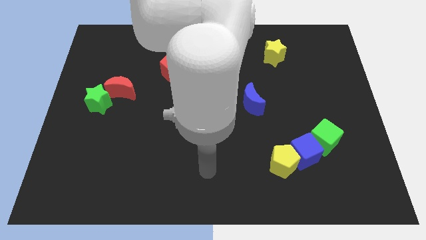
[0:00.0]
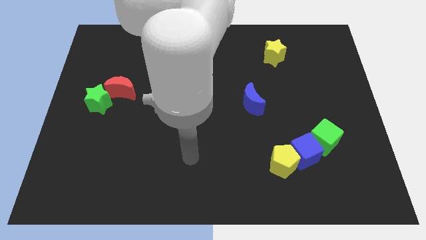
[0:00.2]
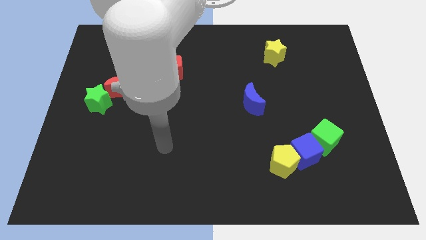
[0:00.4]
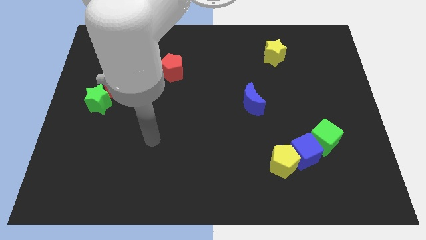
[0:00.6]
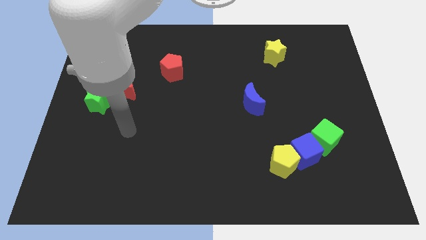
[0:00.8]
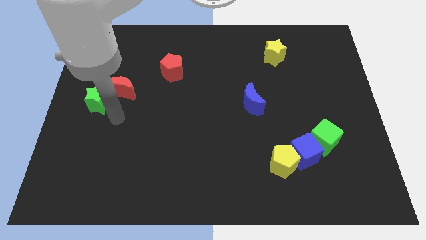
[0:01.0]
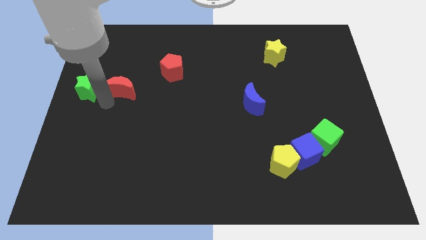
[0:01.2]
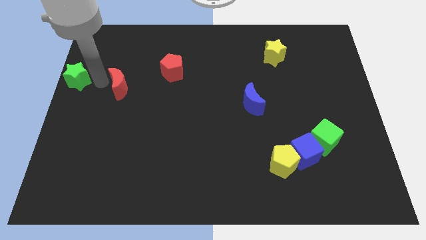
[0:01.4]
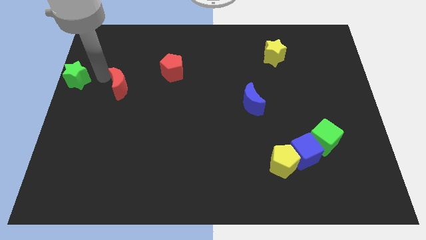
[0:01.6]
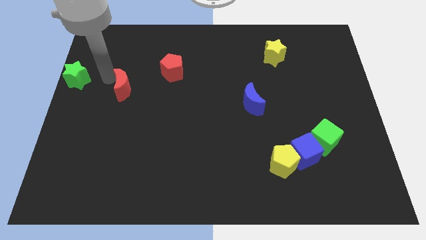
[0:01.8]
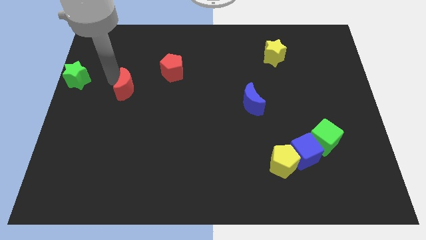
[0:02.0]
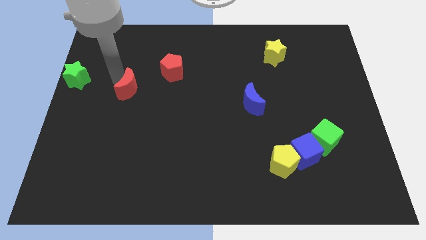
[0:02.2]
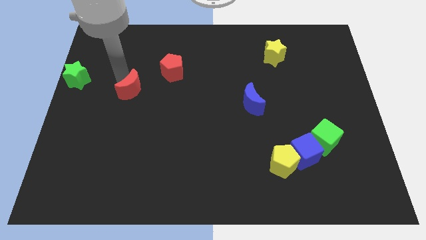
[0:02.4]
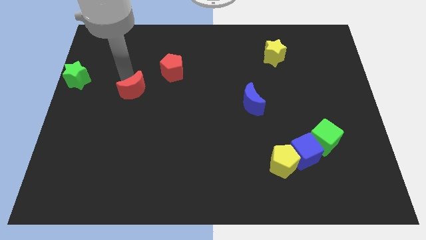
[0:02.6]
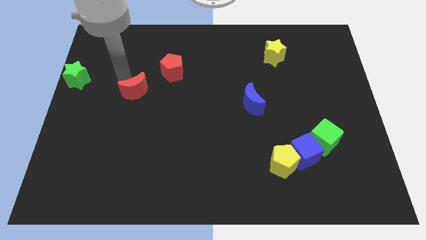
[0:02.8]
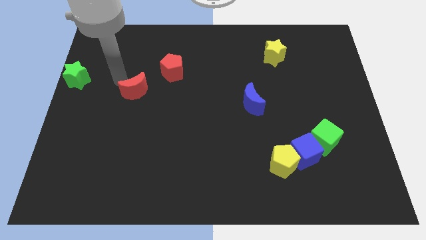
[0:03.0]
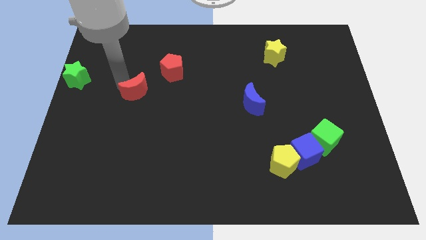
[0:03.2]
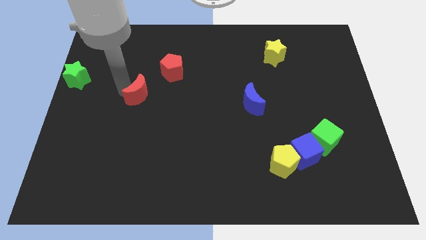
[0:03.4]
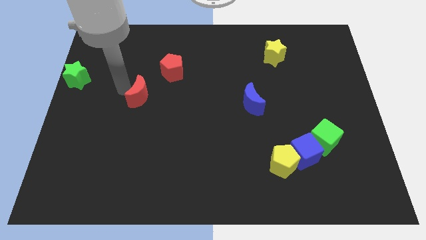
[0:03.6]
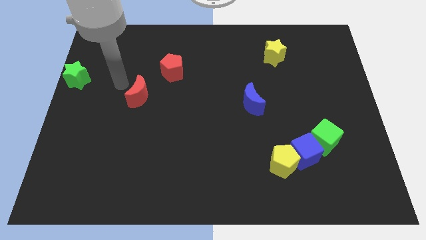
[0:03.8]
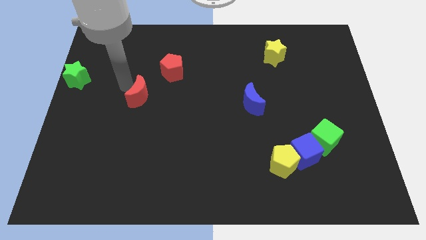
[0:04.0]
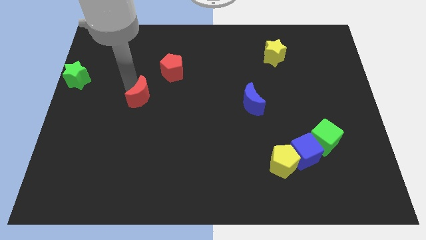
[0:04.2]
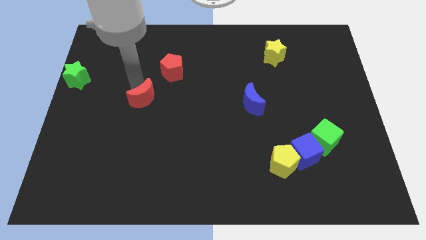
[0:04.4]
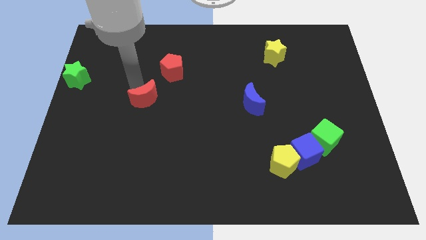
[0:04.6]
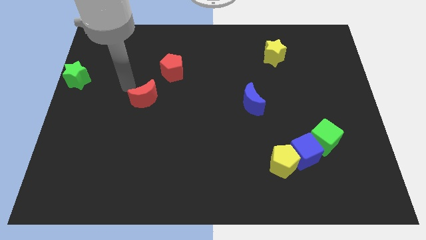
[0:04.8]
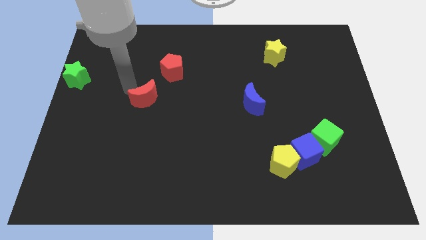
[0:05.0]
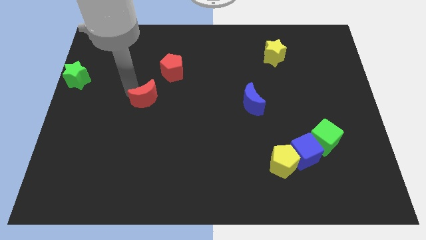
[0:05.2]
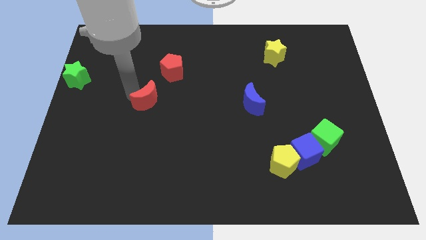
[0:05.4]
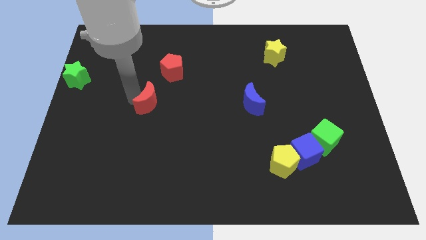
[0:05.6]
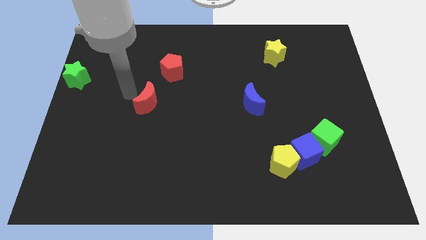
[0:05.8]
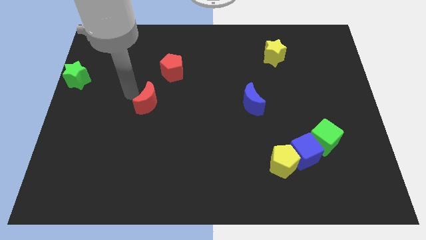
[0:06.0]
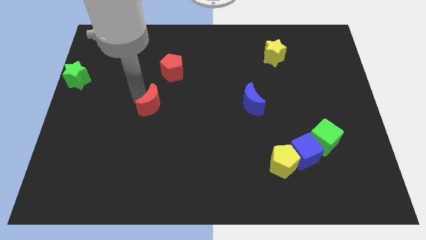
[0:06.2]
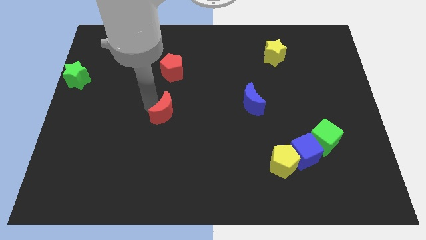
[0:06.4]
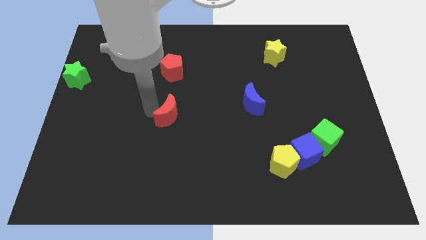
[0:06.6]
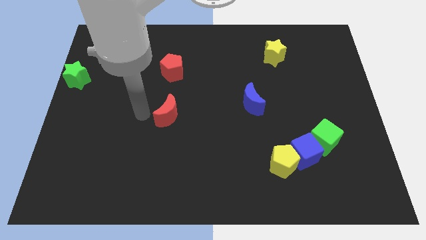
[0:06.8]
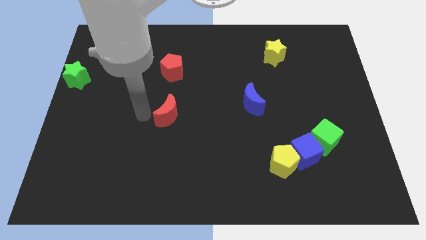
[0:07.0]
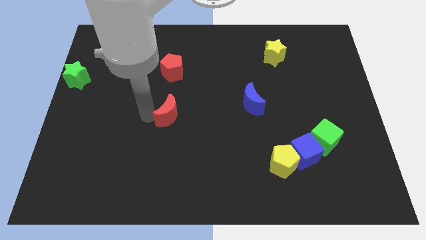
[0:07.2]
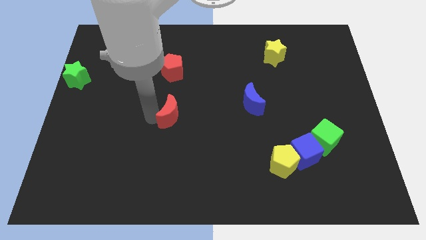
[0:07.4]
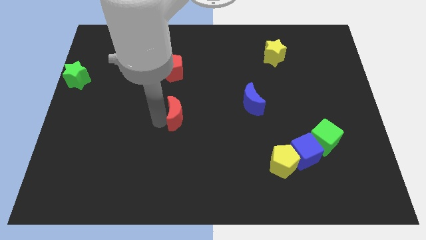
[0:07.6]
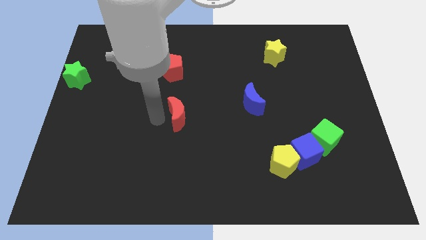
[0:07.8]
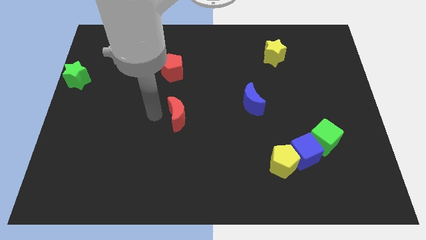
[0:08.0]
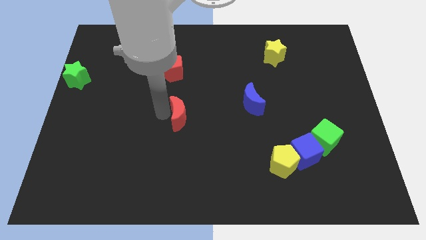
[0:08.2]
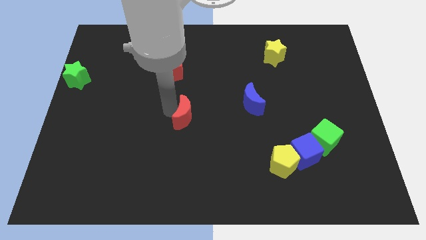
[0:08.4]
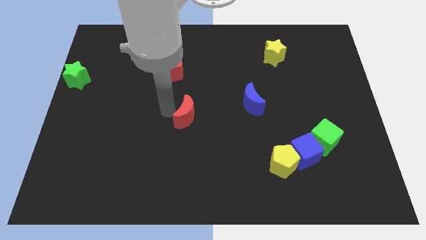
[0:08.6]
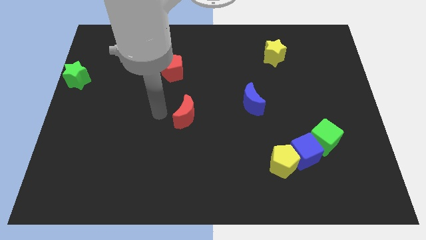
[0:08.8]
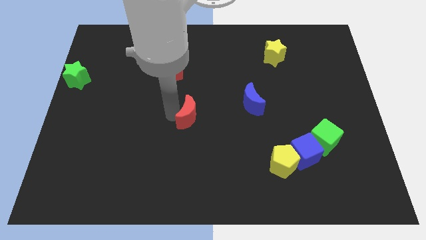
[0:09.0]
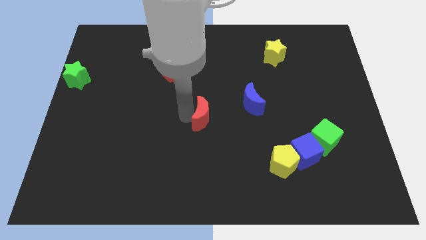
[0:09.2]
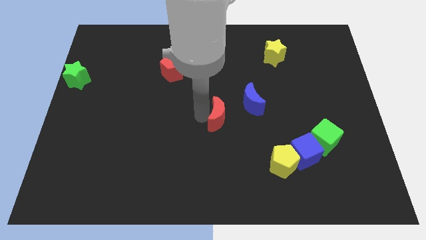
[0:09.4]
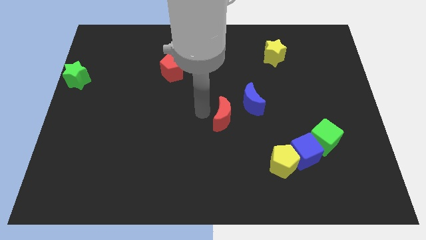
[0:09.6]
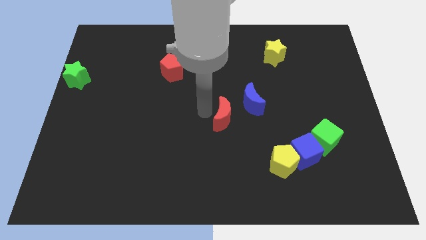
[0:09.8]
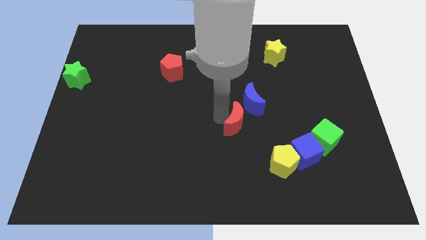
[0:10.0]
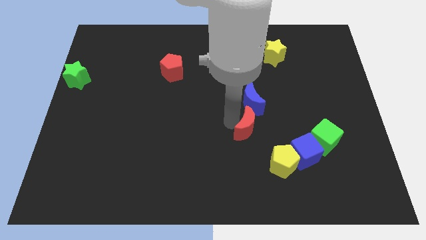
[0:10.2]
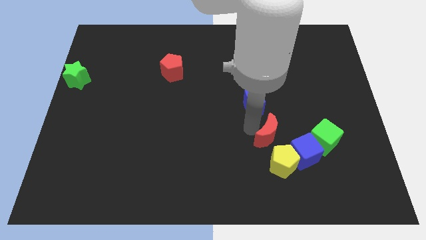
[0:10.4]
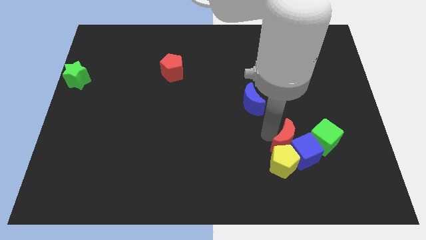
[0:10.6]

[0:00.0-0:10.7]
push the red moon to the blue cube

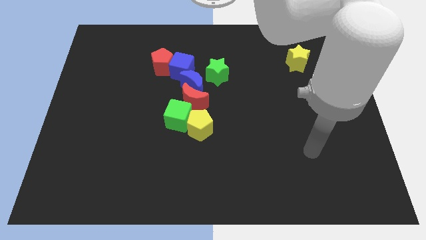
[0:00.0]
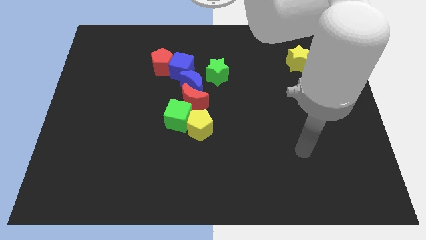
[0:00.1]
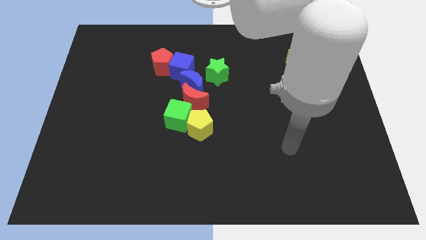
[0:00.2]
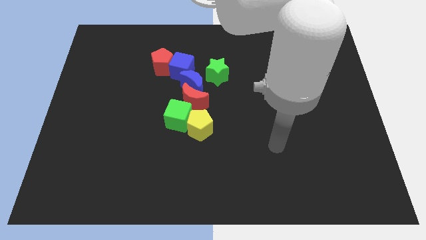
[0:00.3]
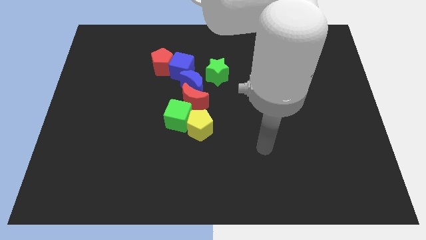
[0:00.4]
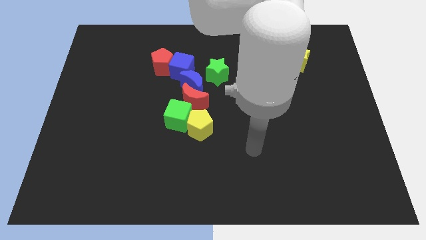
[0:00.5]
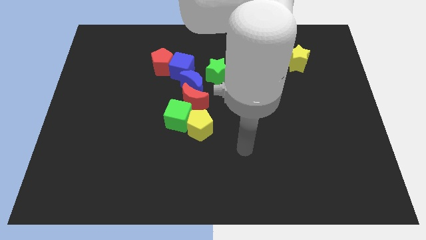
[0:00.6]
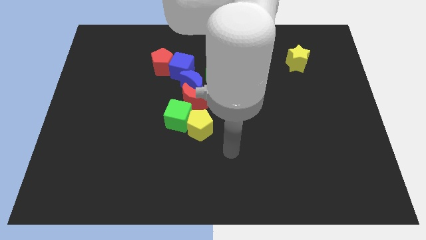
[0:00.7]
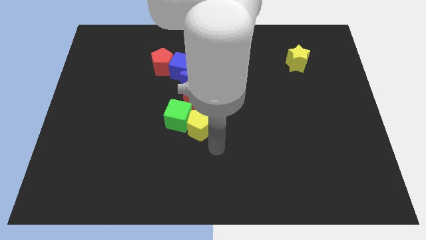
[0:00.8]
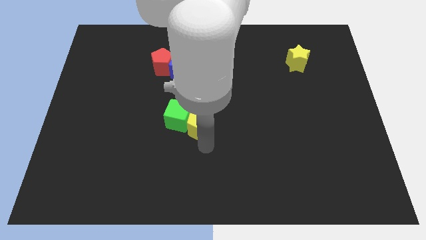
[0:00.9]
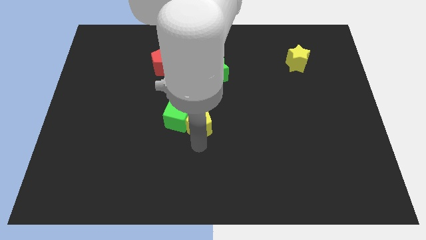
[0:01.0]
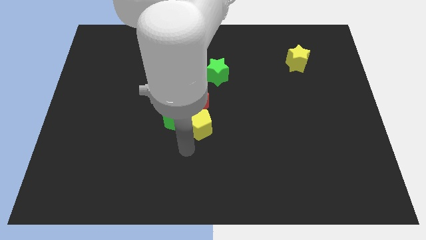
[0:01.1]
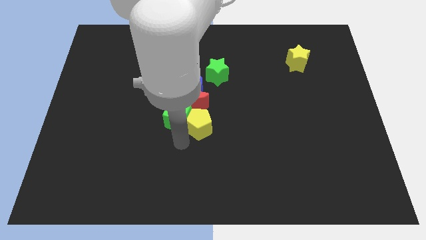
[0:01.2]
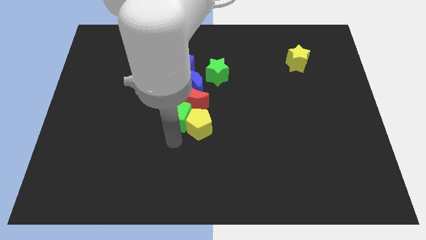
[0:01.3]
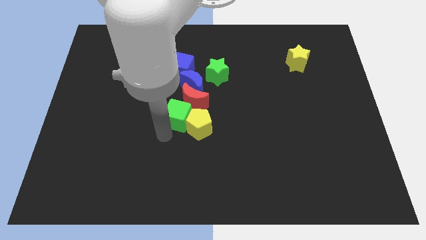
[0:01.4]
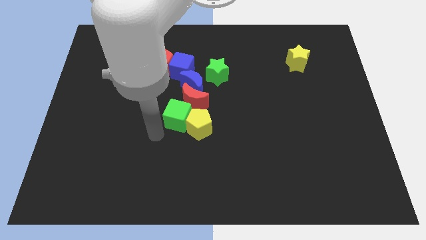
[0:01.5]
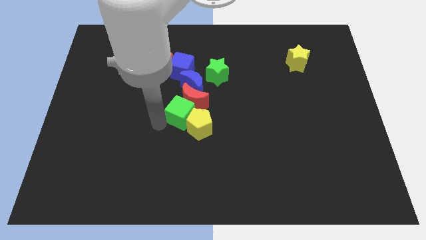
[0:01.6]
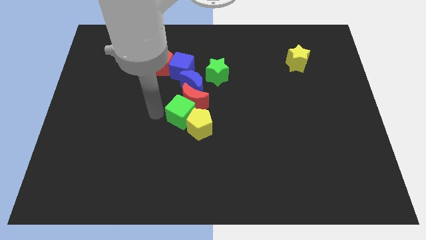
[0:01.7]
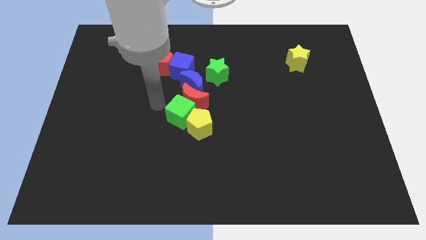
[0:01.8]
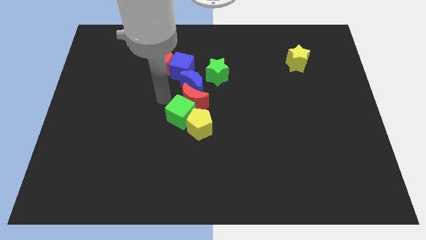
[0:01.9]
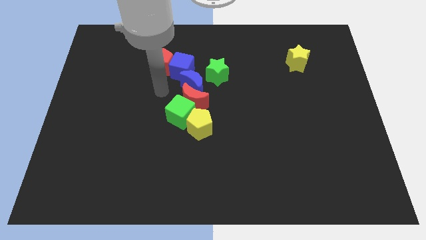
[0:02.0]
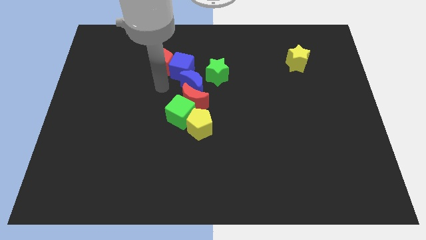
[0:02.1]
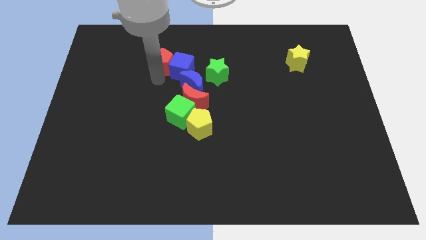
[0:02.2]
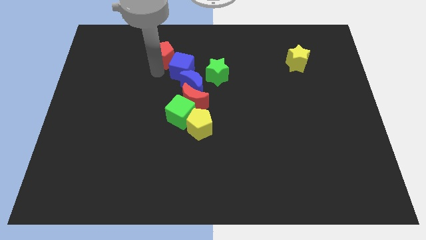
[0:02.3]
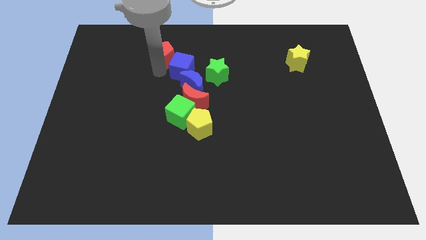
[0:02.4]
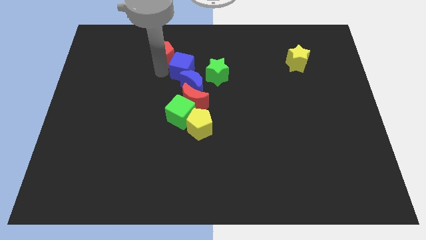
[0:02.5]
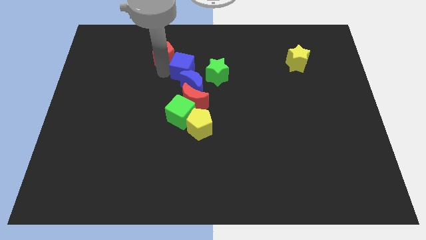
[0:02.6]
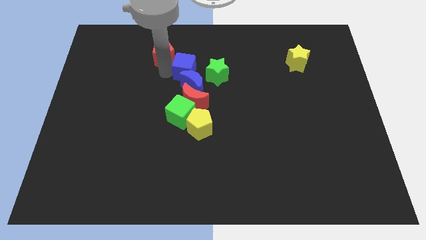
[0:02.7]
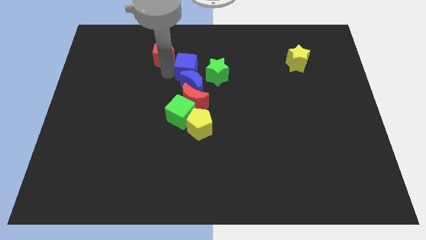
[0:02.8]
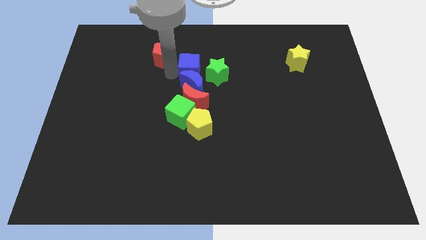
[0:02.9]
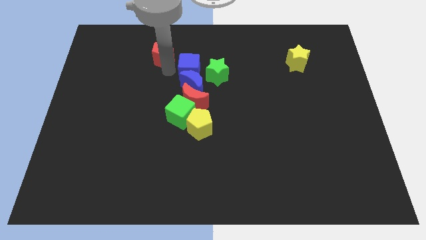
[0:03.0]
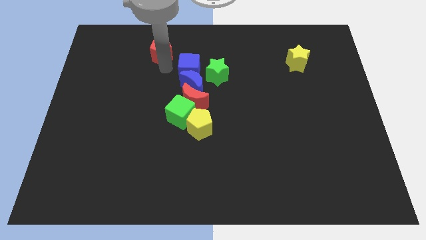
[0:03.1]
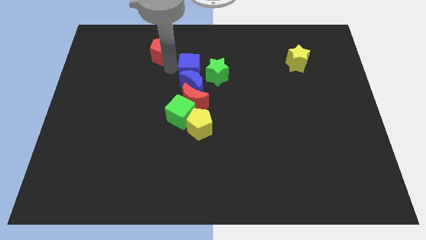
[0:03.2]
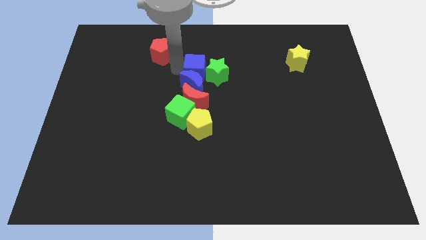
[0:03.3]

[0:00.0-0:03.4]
slide the blue cube next to the green star
